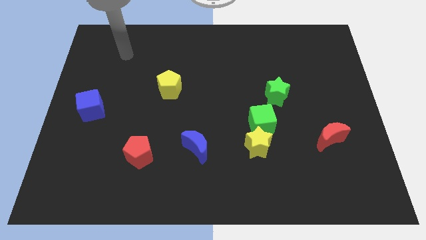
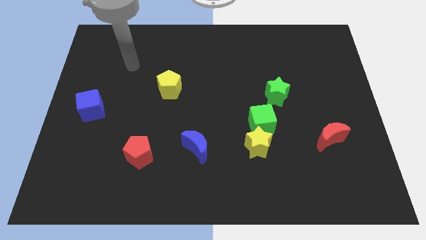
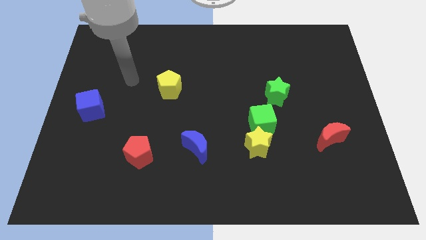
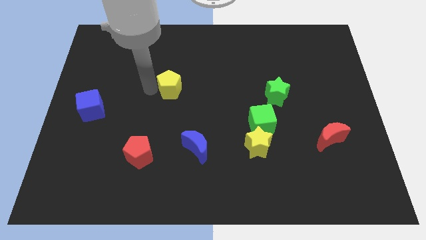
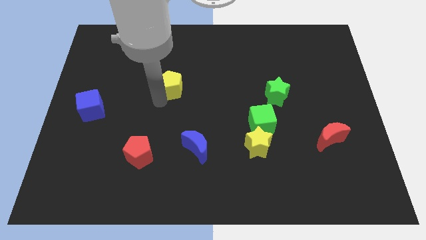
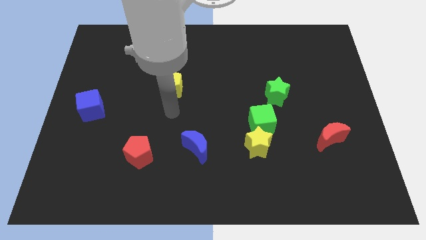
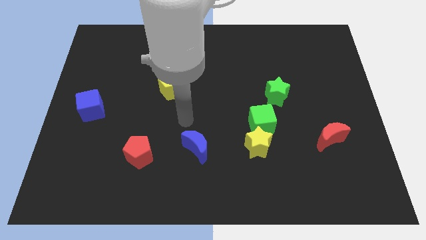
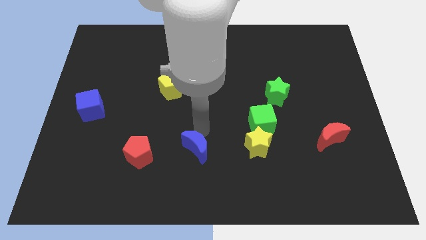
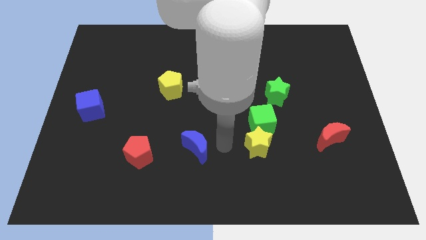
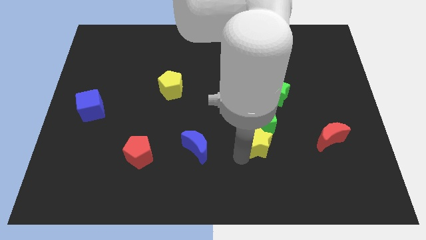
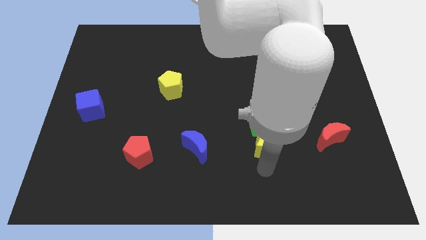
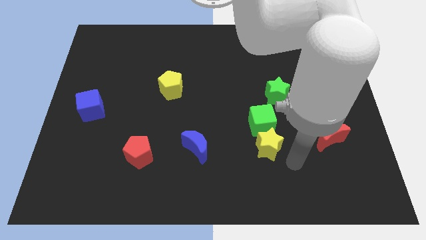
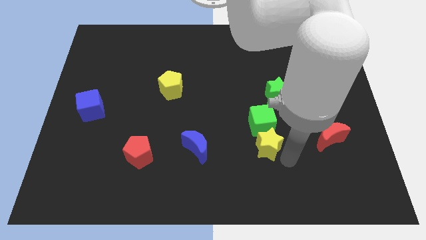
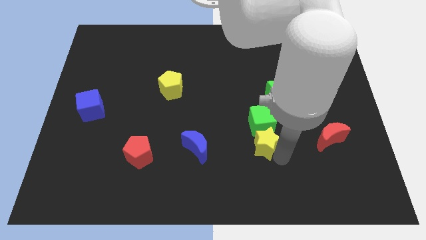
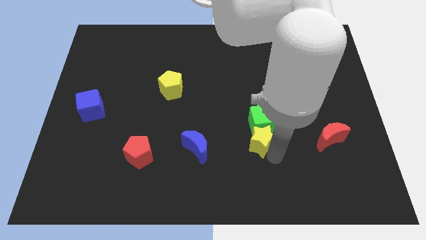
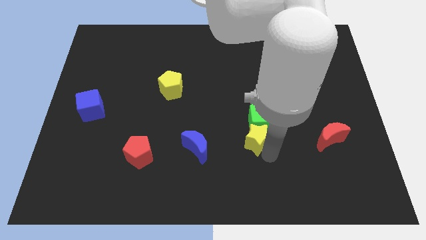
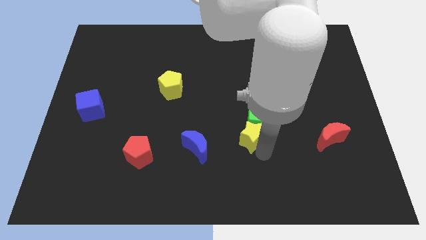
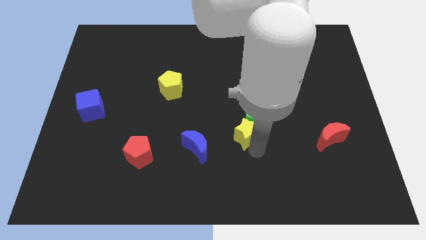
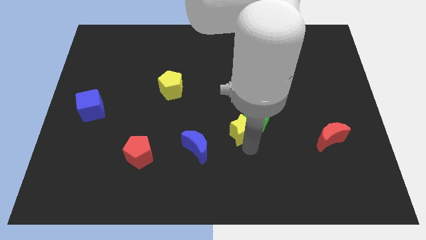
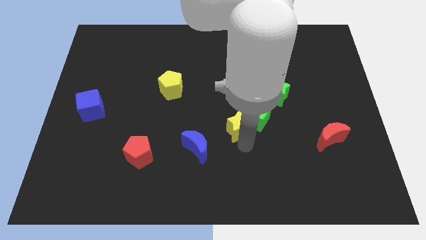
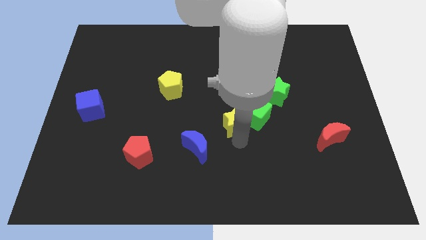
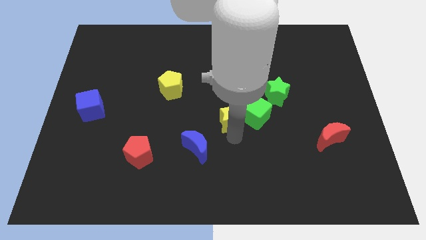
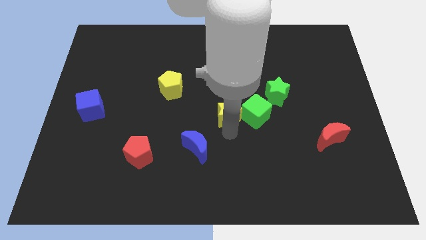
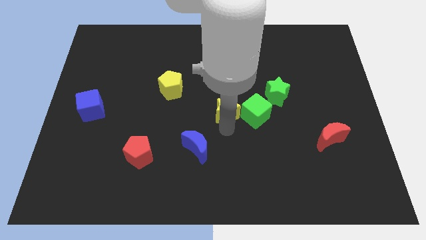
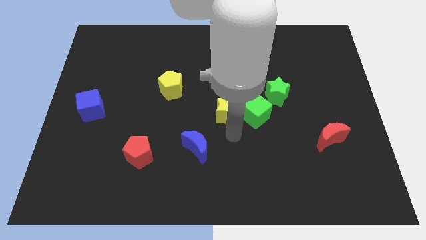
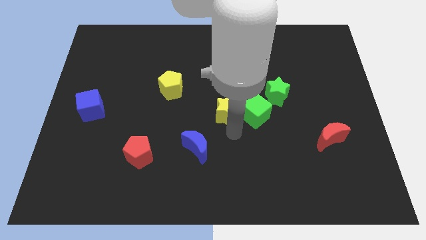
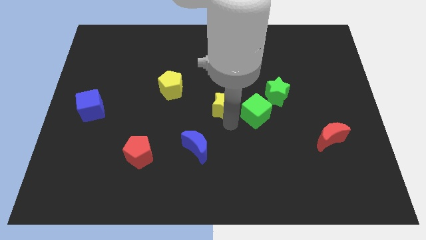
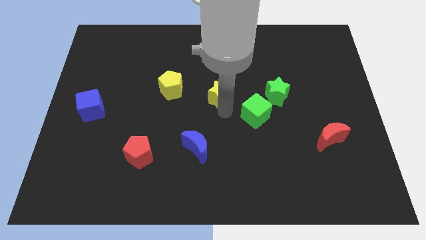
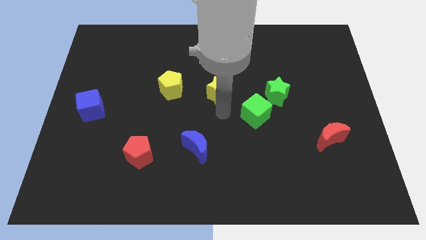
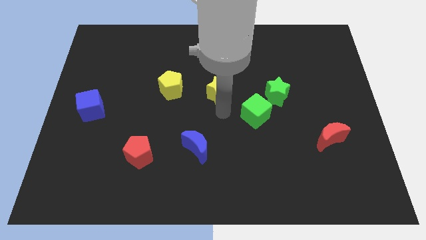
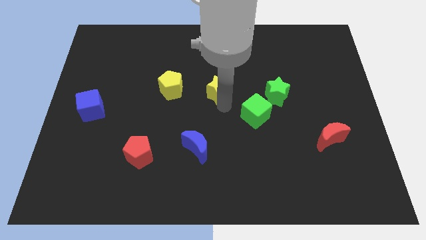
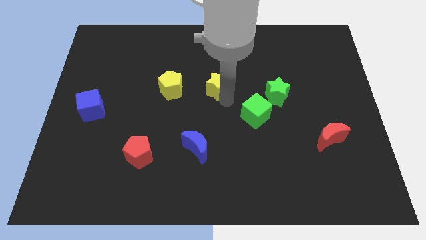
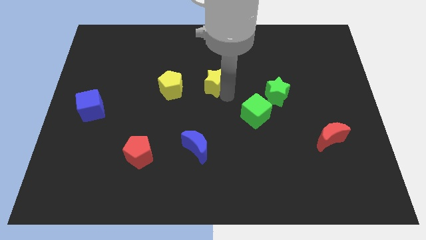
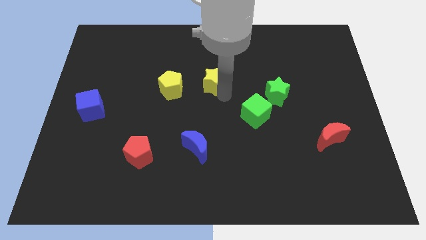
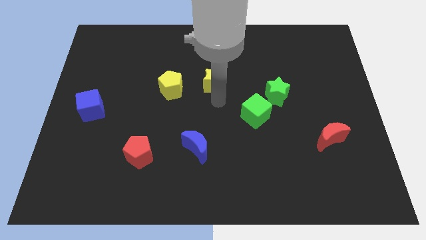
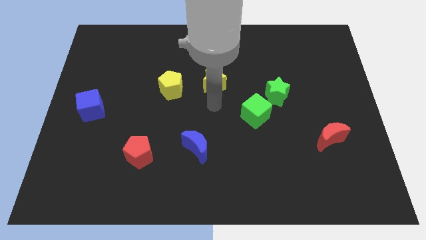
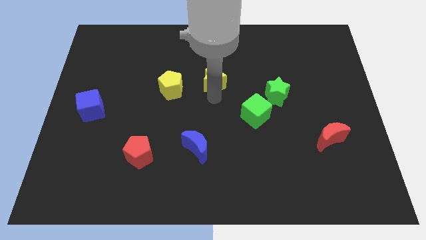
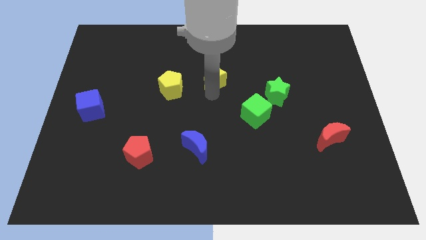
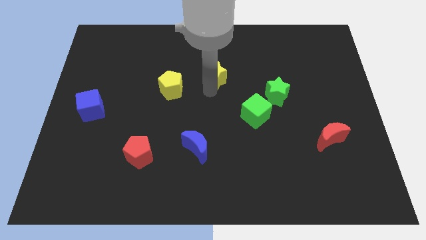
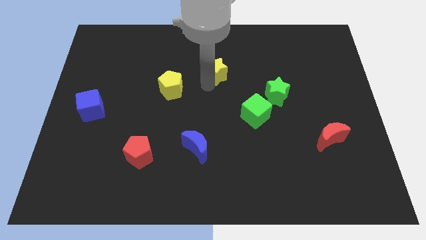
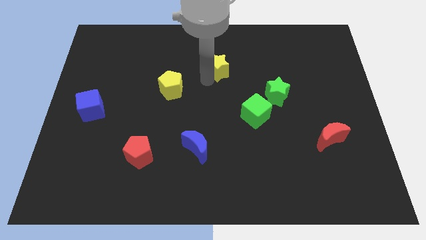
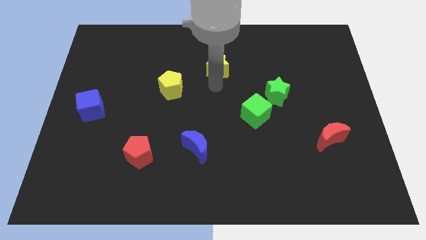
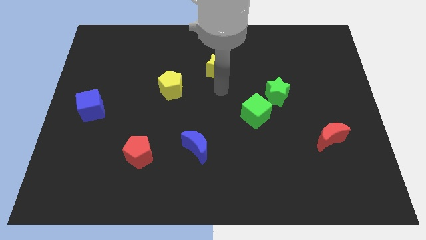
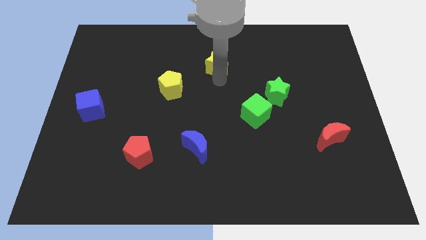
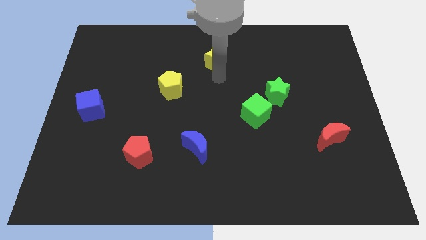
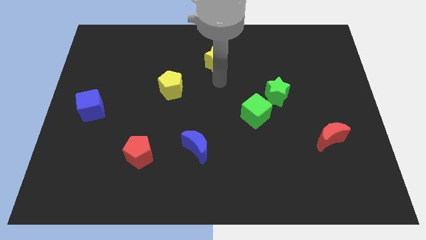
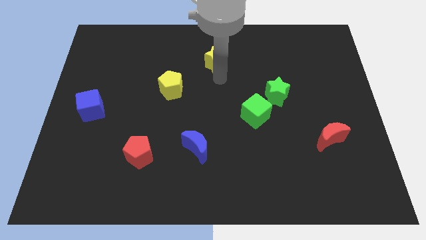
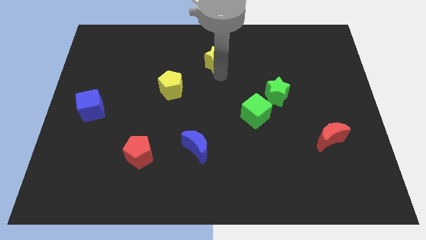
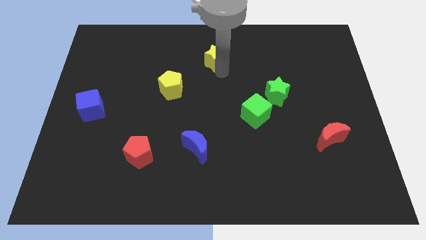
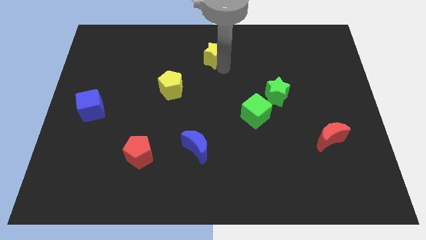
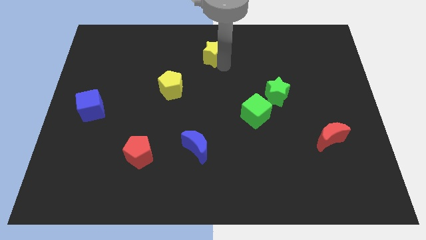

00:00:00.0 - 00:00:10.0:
put the yellow star to the top

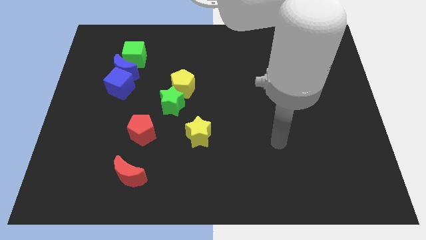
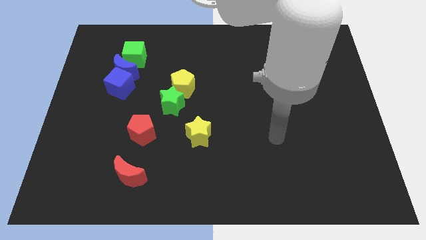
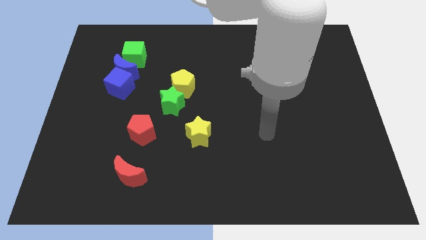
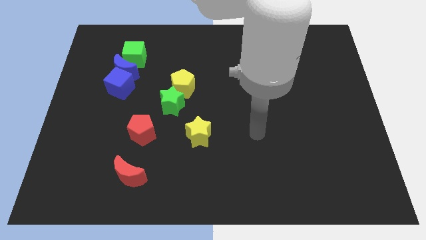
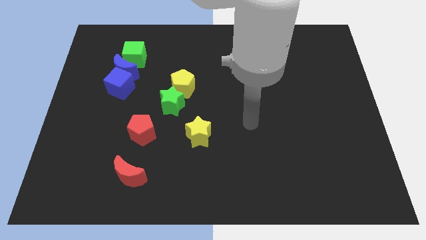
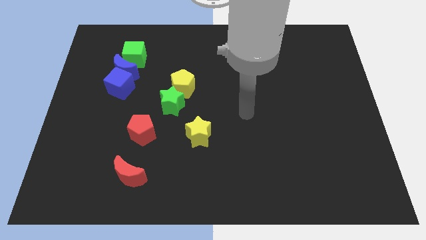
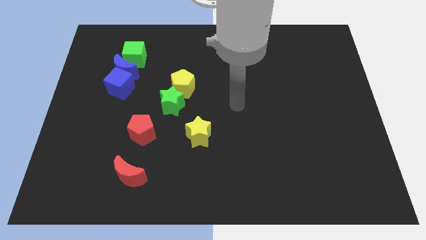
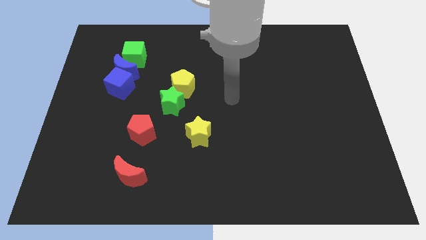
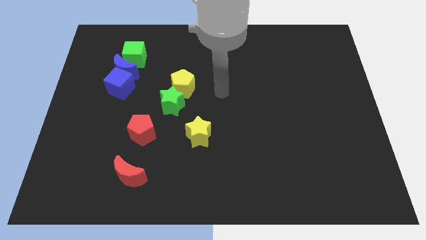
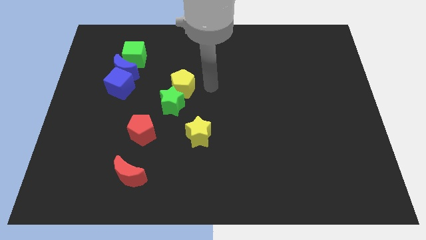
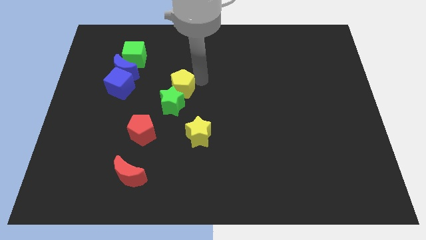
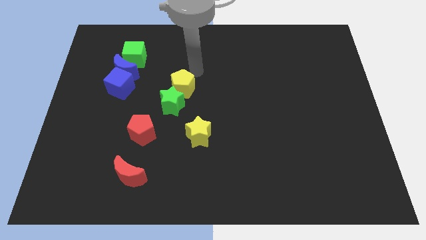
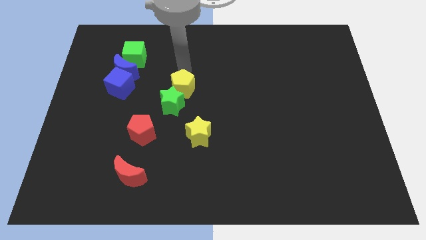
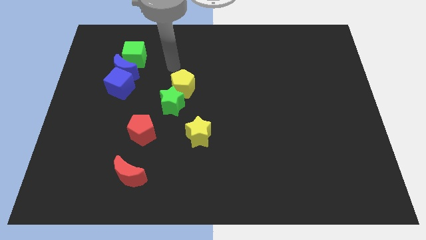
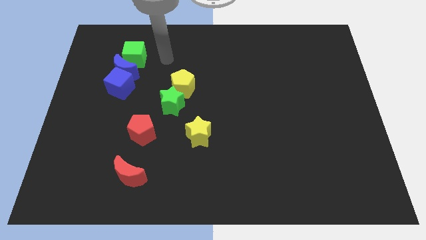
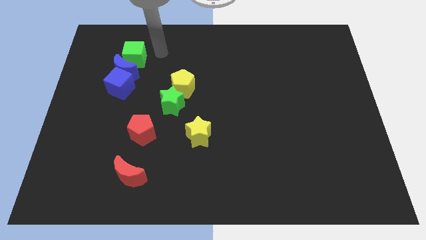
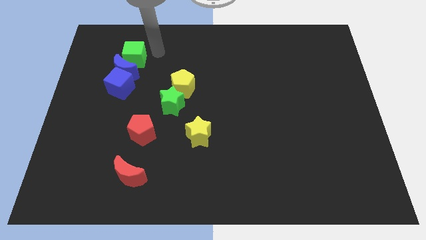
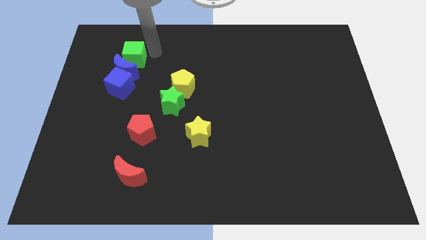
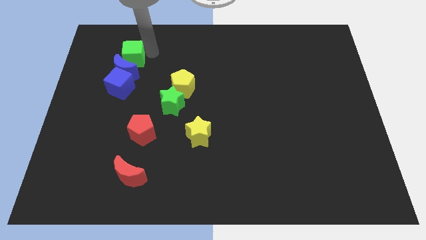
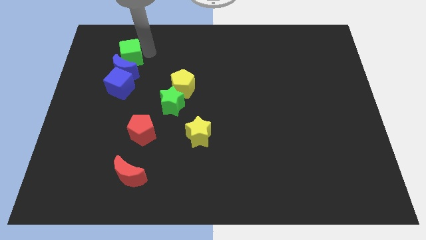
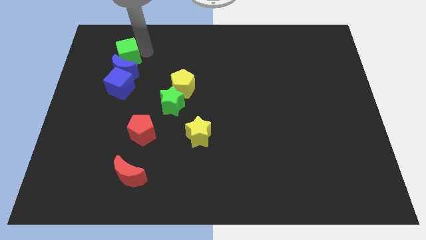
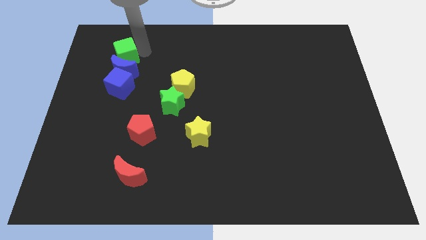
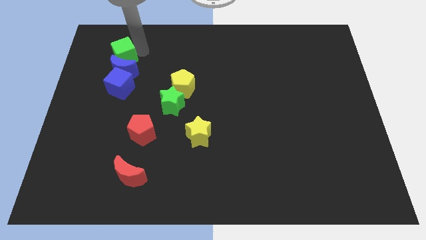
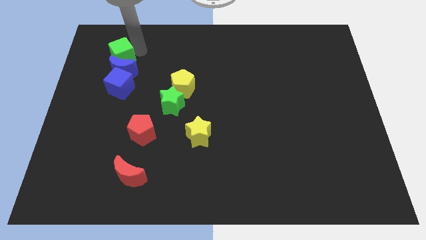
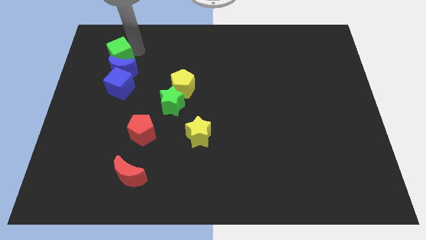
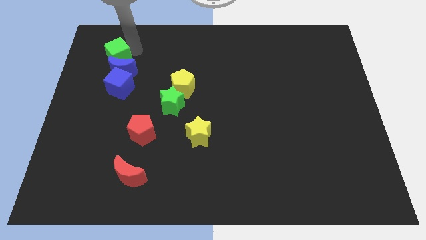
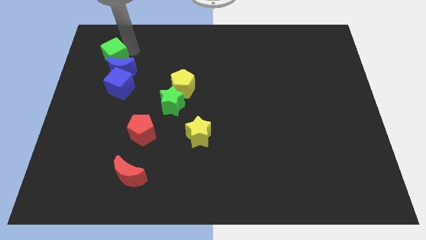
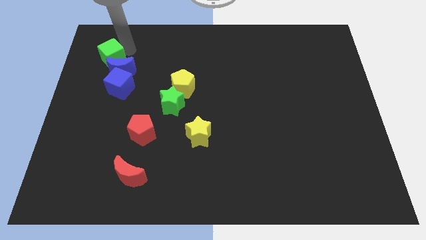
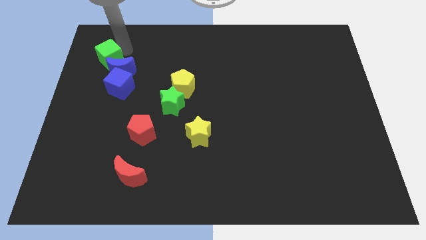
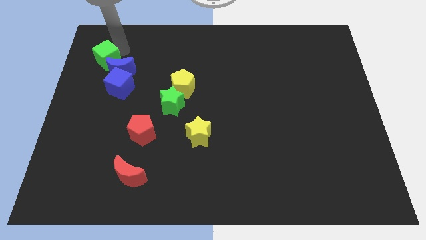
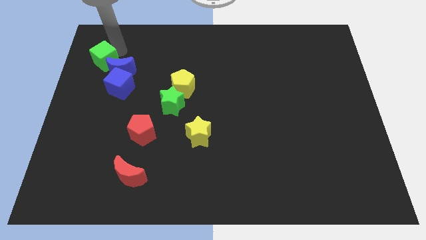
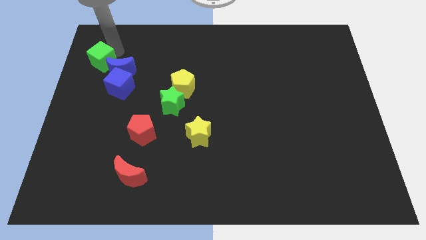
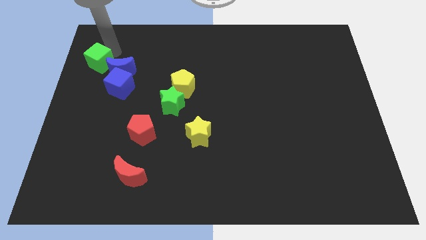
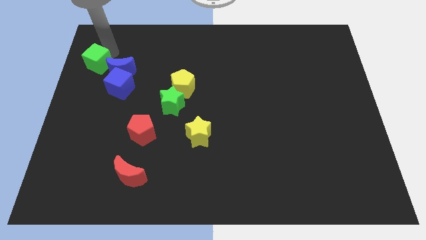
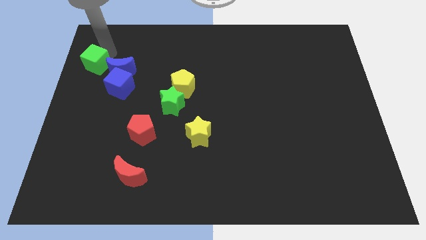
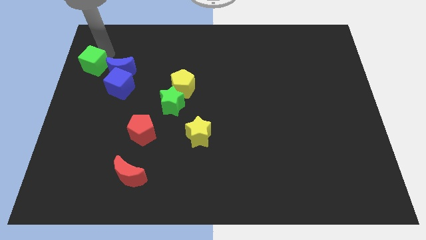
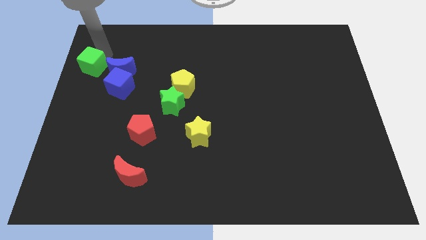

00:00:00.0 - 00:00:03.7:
push the green cube to the left side of the board
